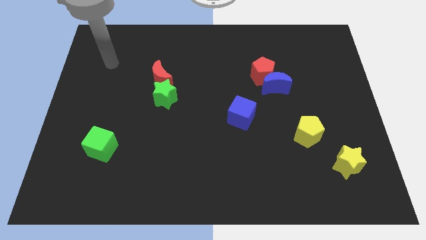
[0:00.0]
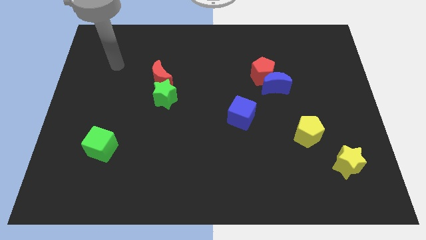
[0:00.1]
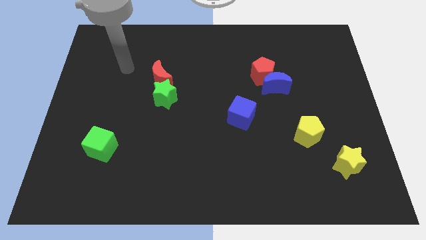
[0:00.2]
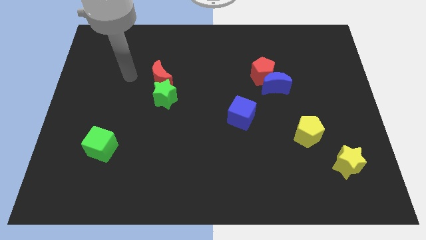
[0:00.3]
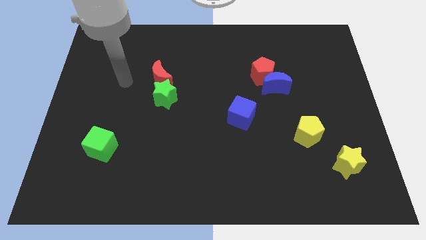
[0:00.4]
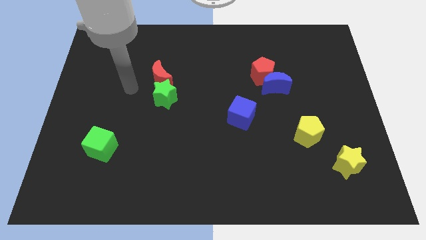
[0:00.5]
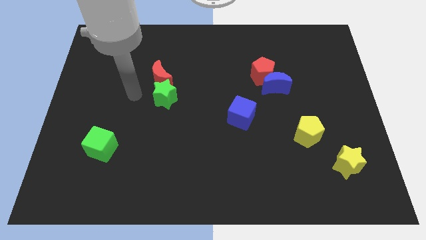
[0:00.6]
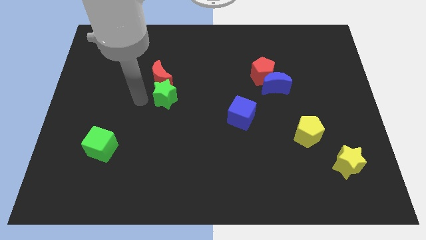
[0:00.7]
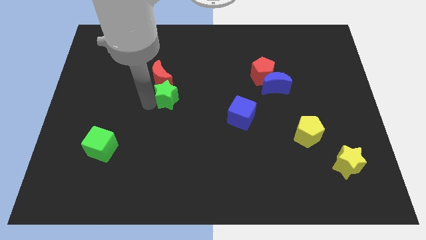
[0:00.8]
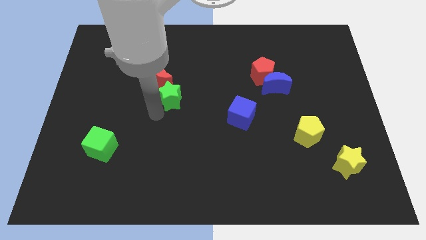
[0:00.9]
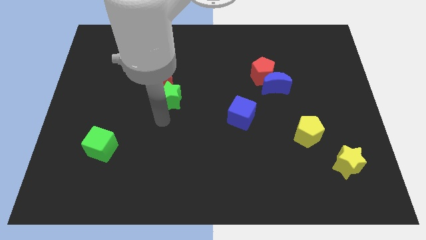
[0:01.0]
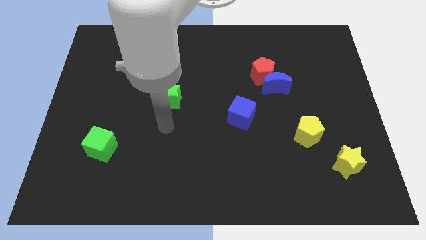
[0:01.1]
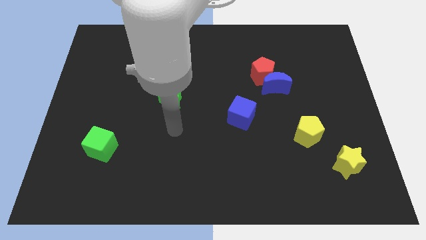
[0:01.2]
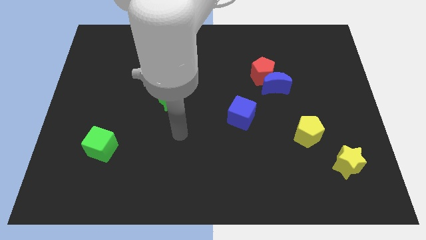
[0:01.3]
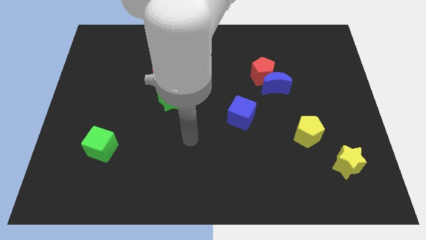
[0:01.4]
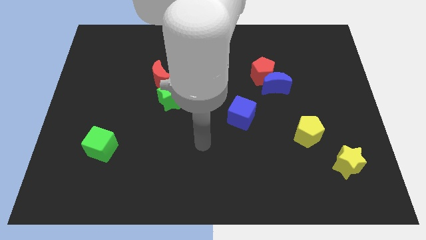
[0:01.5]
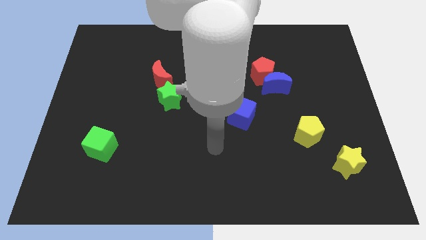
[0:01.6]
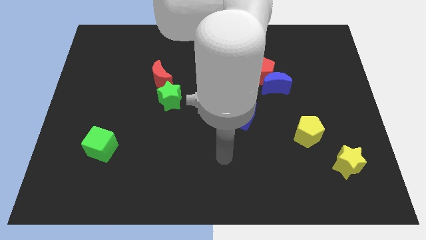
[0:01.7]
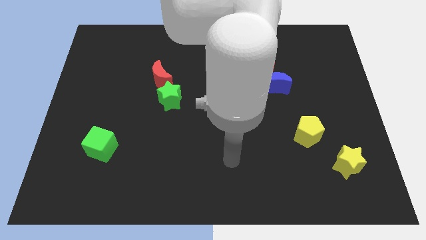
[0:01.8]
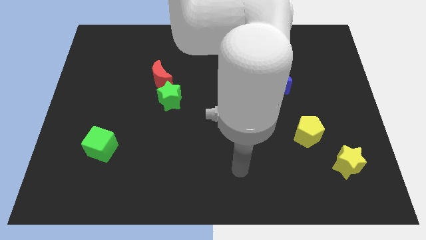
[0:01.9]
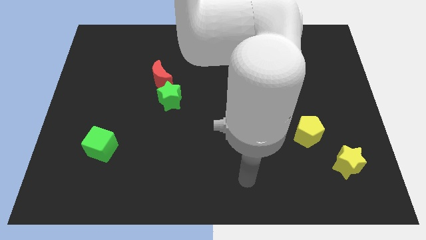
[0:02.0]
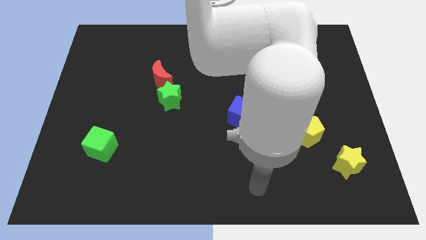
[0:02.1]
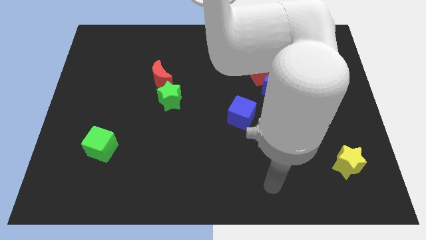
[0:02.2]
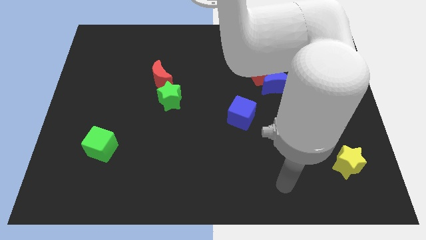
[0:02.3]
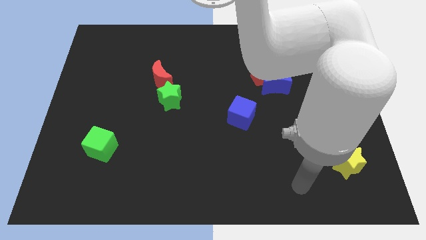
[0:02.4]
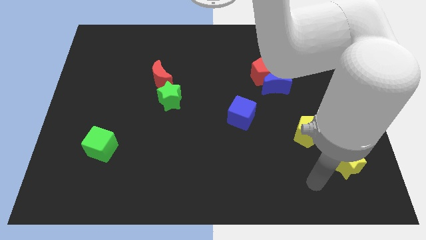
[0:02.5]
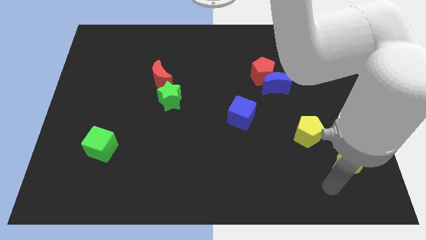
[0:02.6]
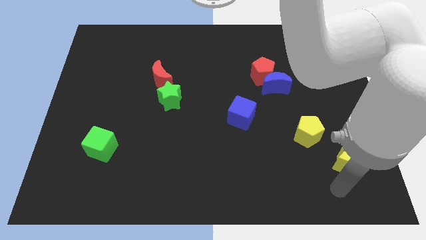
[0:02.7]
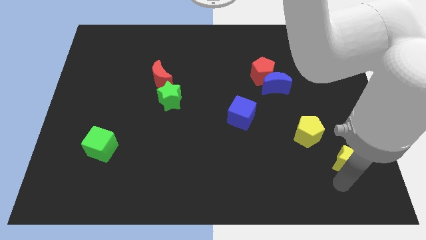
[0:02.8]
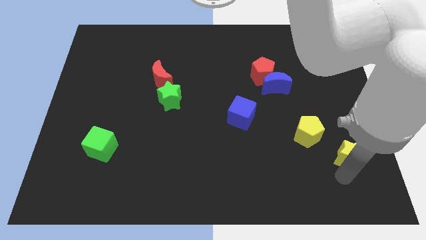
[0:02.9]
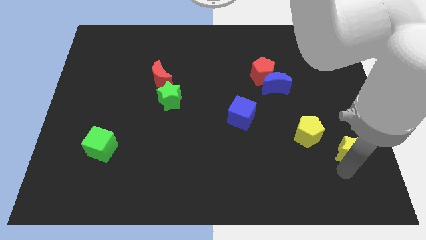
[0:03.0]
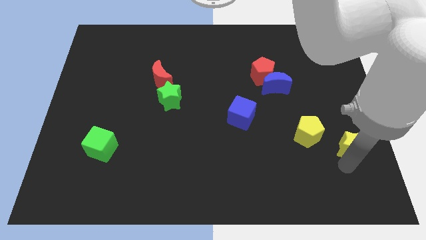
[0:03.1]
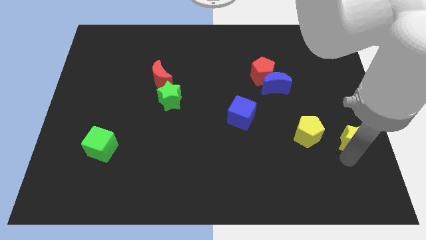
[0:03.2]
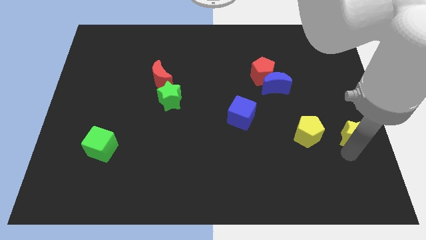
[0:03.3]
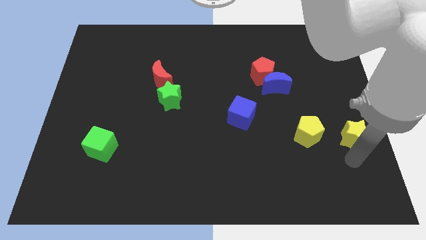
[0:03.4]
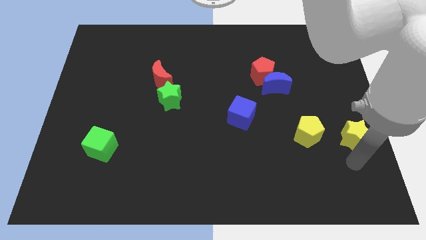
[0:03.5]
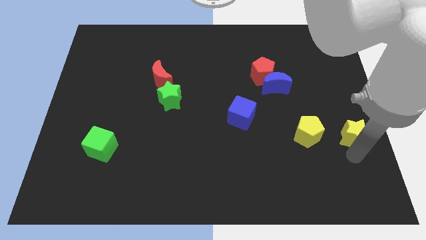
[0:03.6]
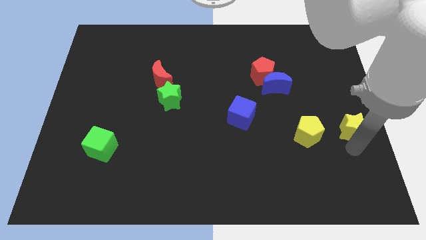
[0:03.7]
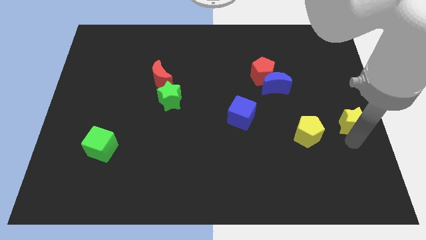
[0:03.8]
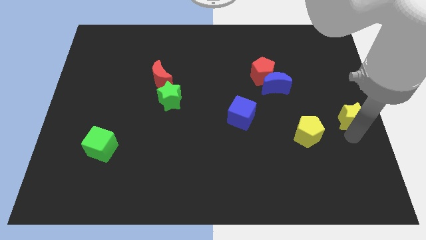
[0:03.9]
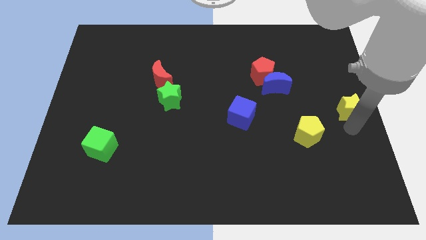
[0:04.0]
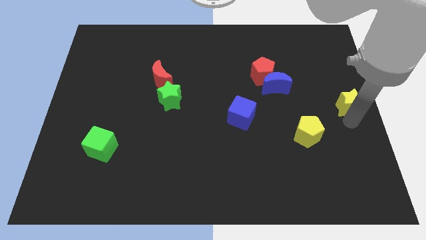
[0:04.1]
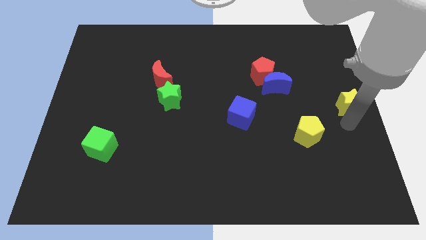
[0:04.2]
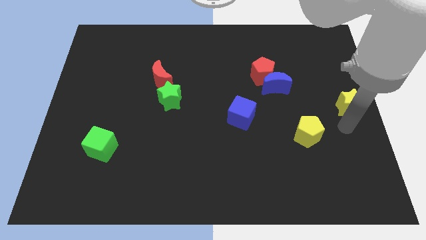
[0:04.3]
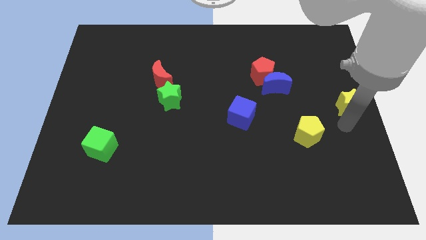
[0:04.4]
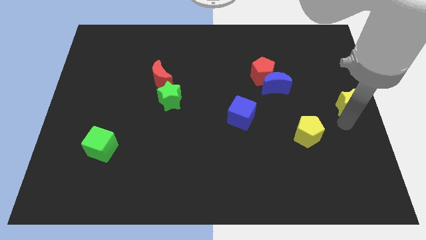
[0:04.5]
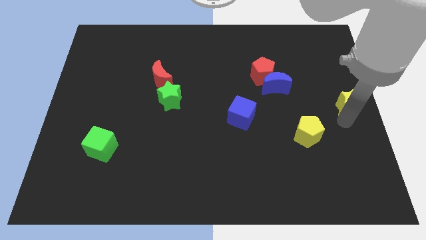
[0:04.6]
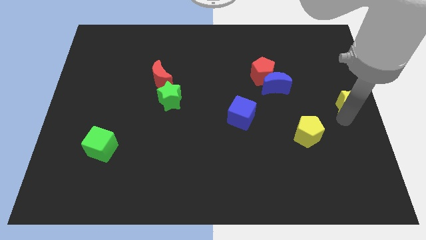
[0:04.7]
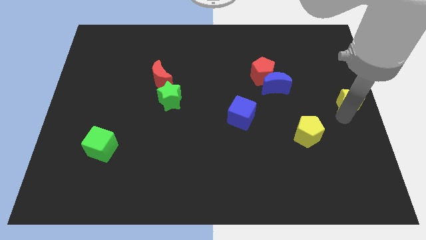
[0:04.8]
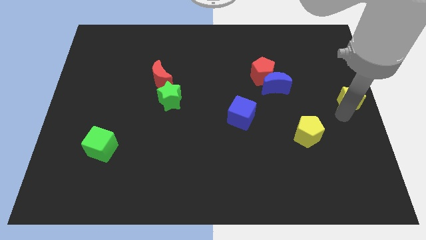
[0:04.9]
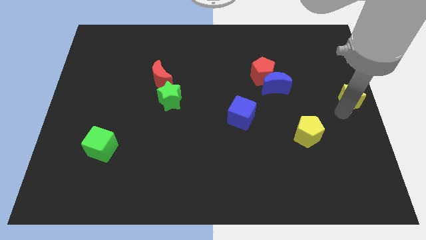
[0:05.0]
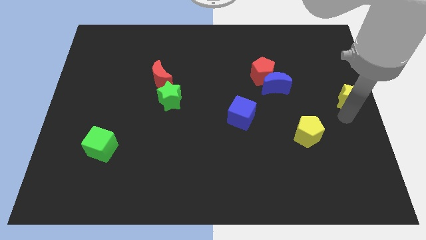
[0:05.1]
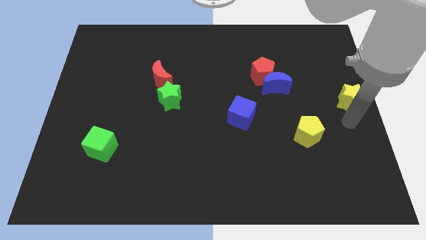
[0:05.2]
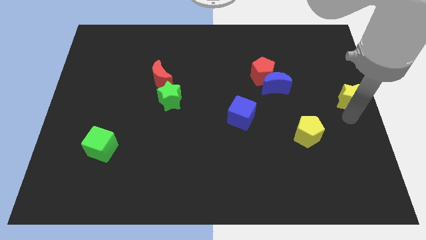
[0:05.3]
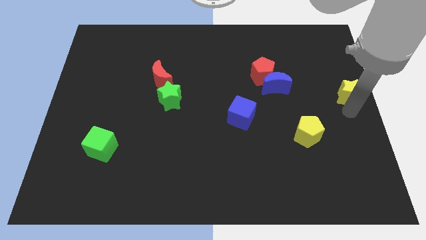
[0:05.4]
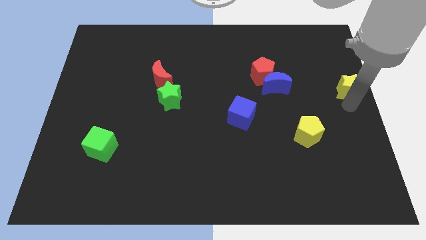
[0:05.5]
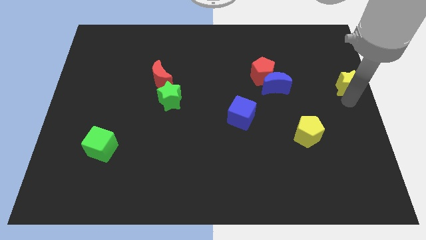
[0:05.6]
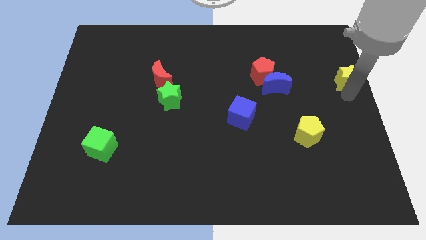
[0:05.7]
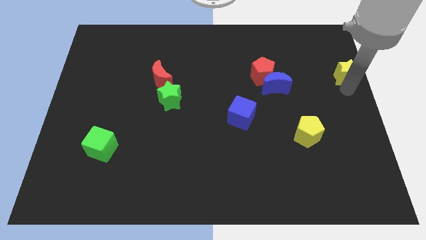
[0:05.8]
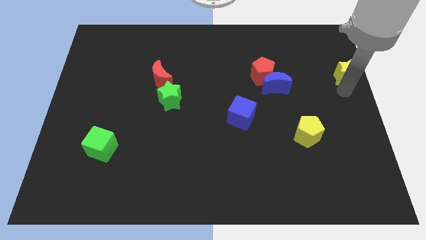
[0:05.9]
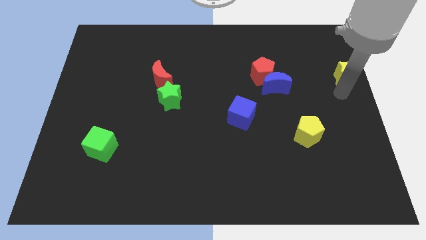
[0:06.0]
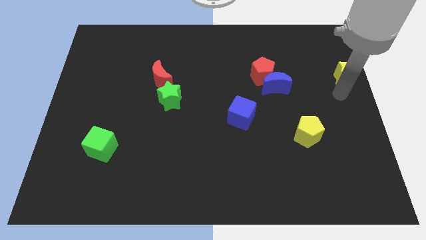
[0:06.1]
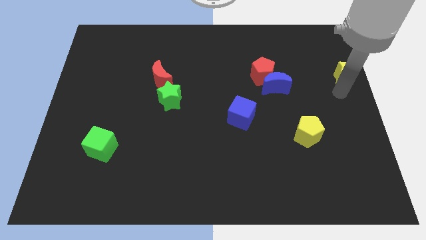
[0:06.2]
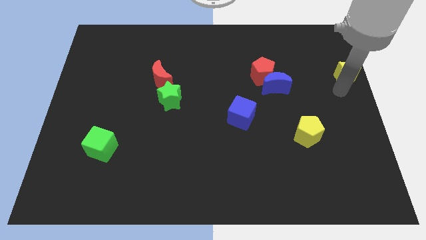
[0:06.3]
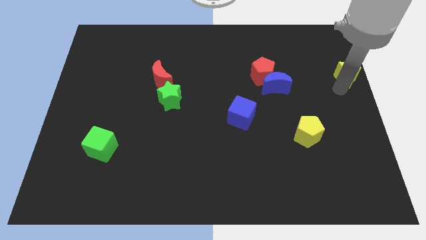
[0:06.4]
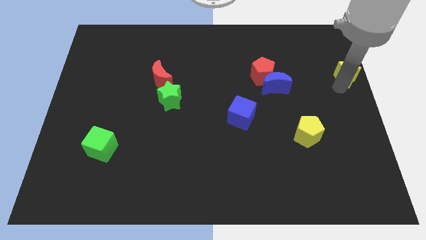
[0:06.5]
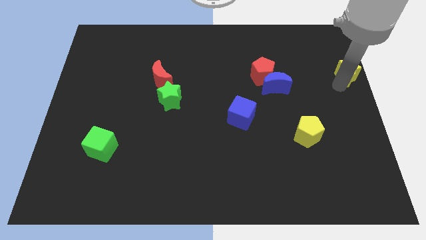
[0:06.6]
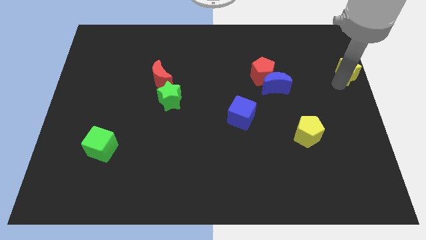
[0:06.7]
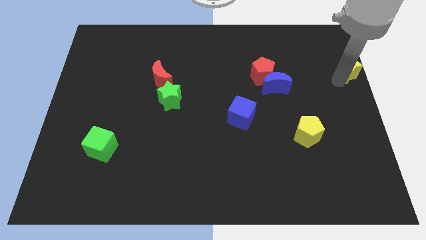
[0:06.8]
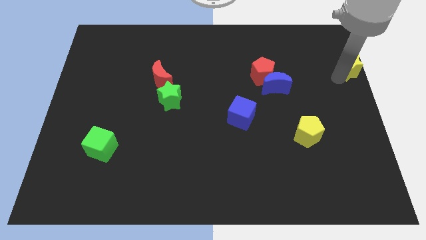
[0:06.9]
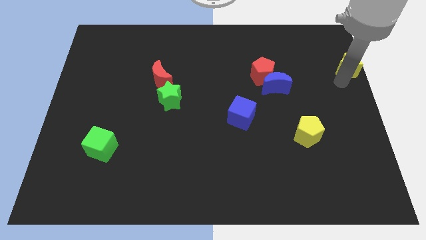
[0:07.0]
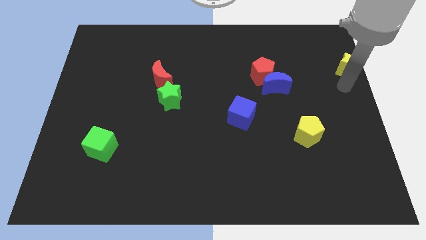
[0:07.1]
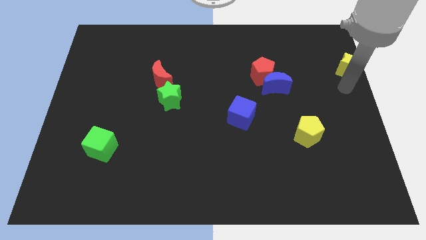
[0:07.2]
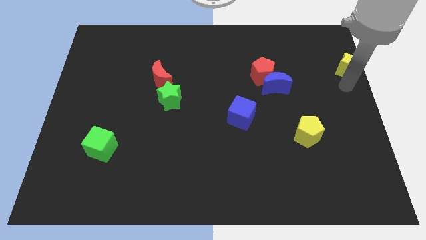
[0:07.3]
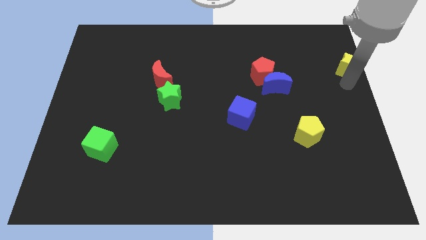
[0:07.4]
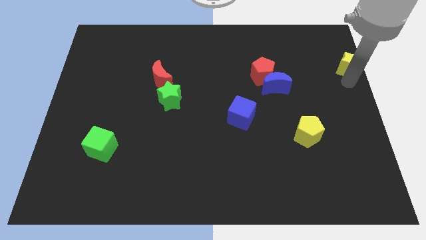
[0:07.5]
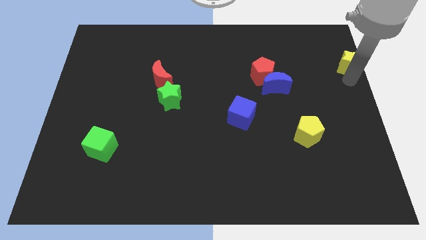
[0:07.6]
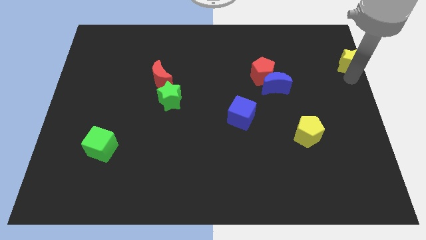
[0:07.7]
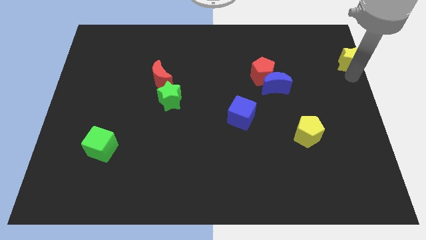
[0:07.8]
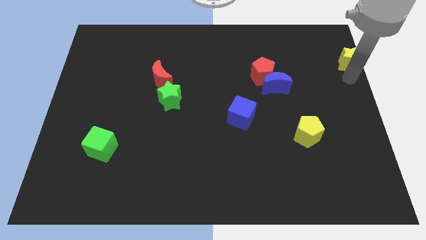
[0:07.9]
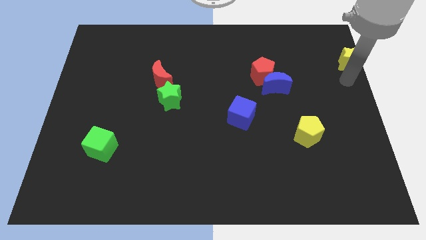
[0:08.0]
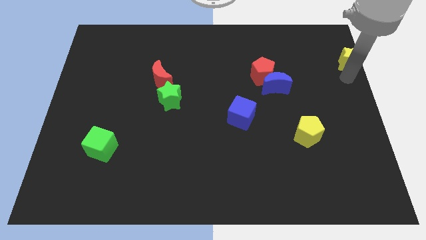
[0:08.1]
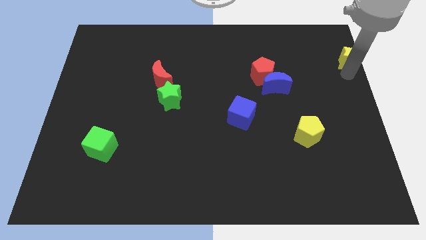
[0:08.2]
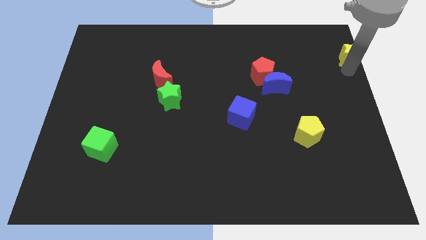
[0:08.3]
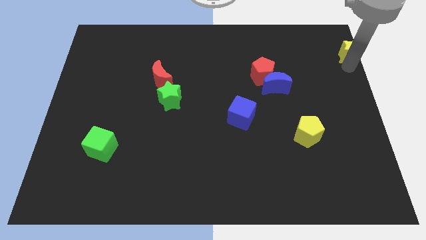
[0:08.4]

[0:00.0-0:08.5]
push the yellow star to the upper right corner
